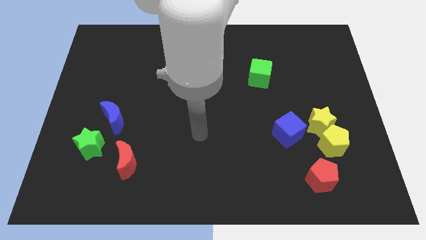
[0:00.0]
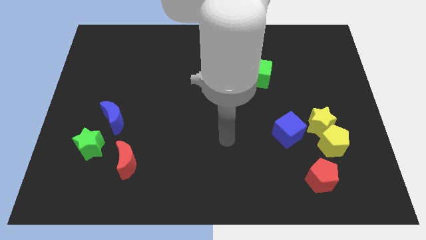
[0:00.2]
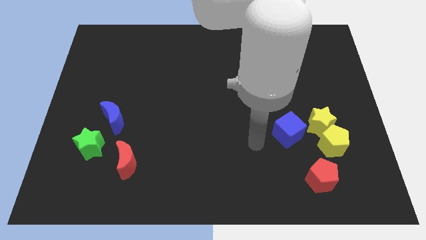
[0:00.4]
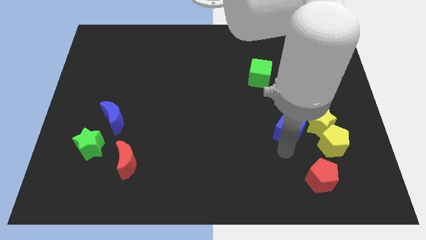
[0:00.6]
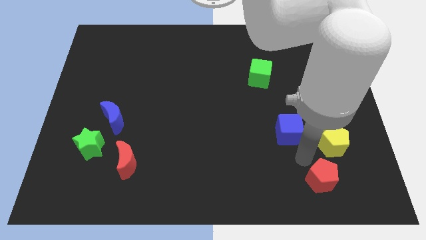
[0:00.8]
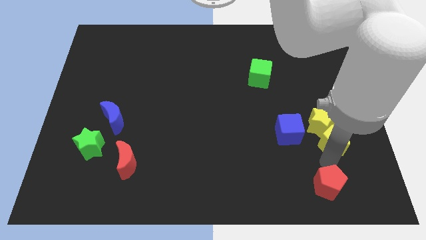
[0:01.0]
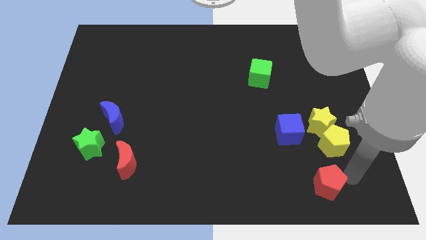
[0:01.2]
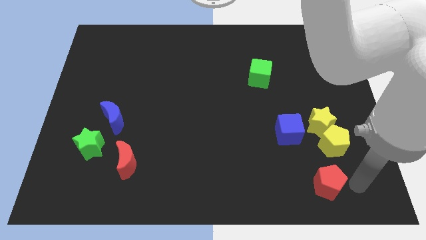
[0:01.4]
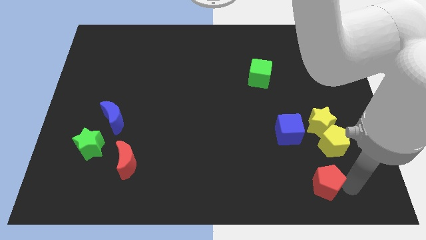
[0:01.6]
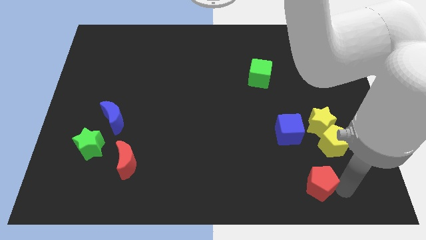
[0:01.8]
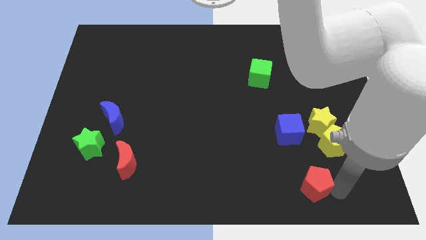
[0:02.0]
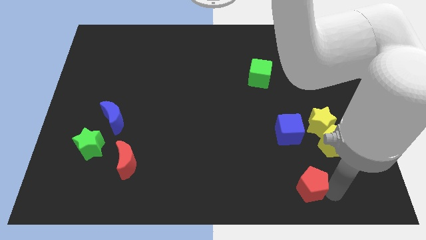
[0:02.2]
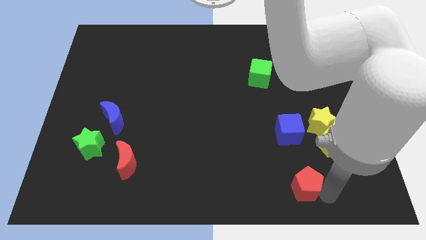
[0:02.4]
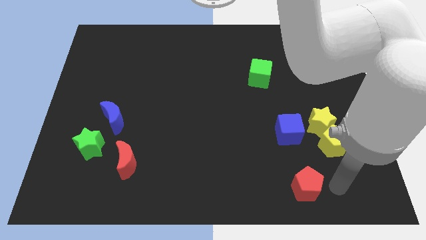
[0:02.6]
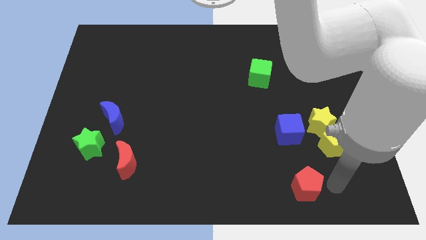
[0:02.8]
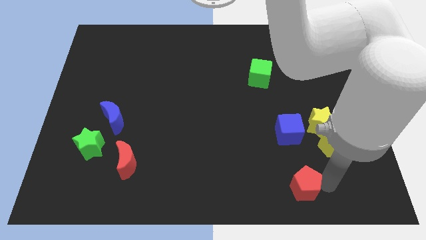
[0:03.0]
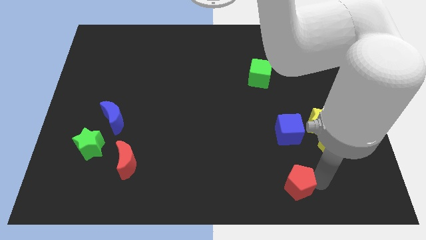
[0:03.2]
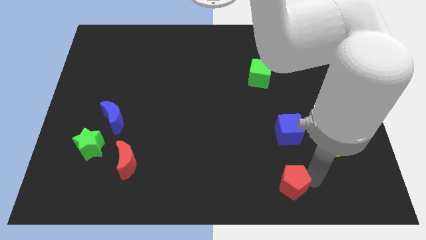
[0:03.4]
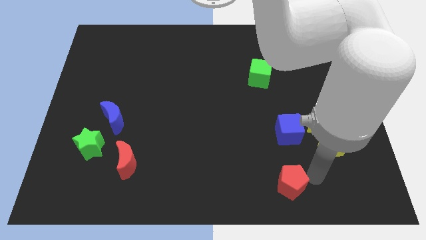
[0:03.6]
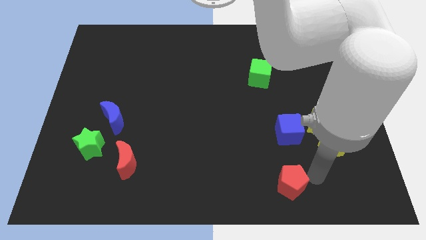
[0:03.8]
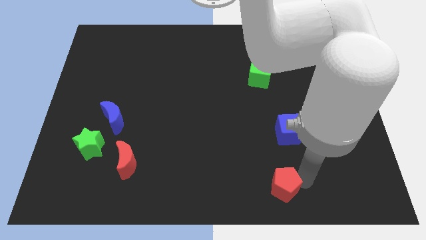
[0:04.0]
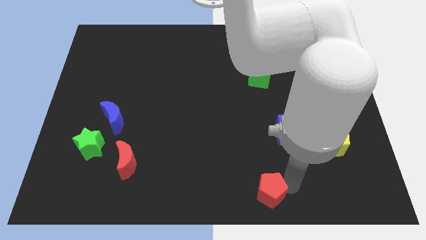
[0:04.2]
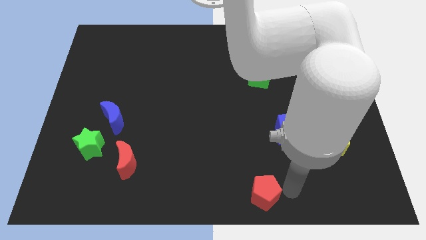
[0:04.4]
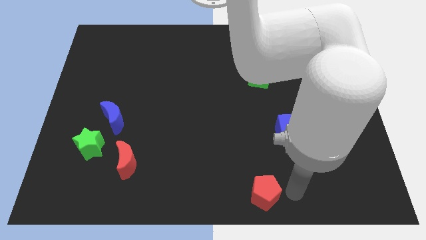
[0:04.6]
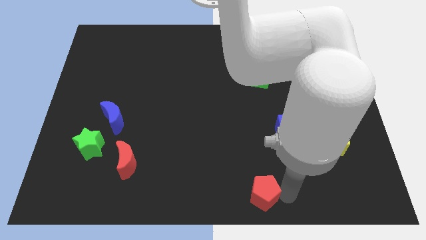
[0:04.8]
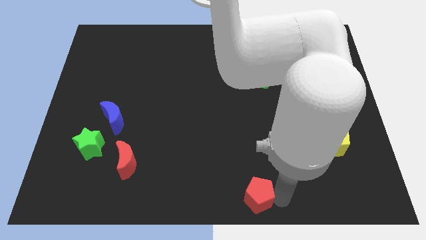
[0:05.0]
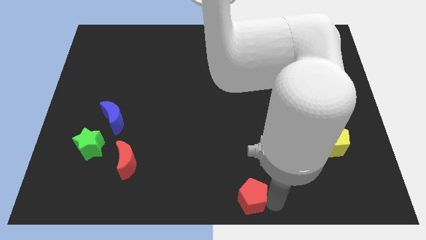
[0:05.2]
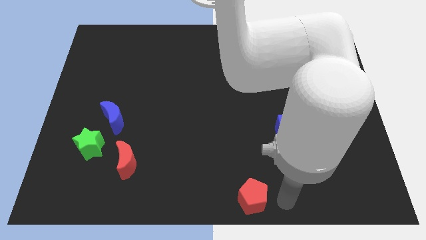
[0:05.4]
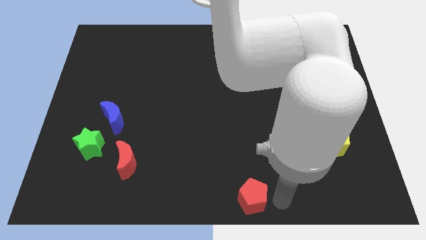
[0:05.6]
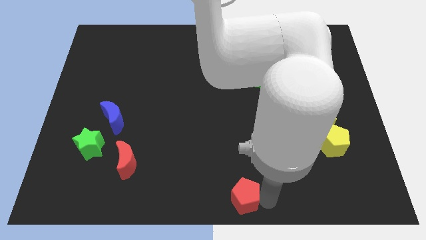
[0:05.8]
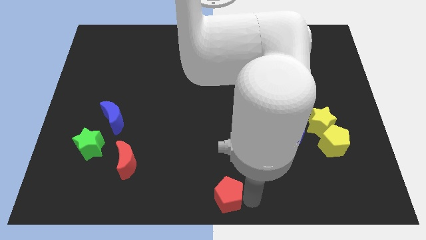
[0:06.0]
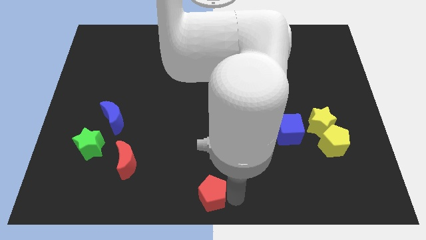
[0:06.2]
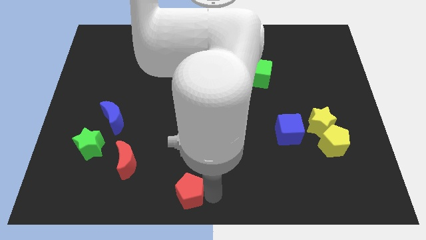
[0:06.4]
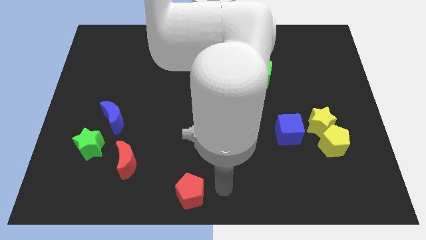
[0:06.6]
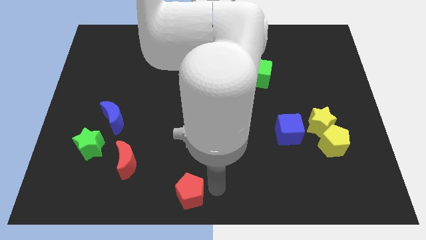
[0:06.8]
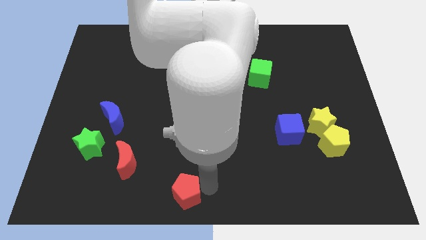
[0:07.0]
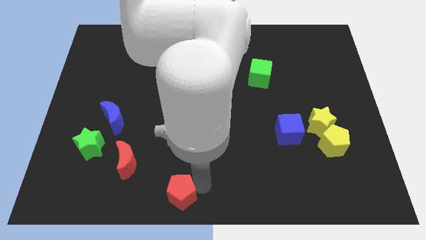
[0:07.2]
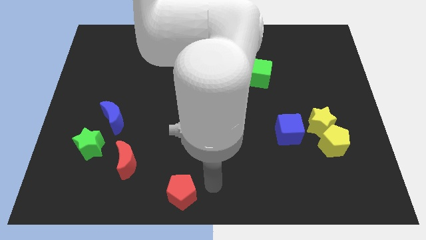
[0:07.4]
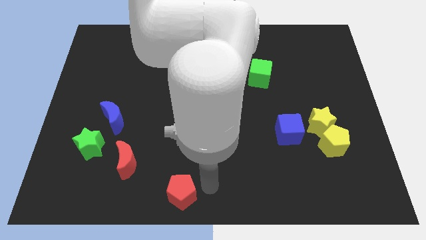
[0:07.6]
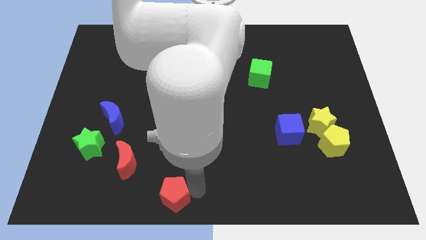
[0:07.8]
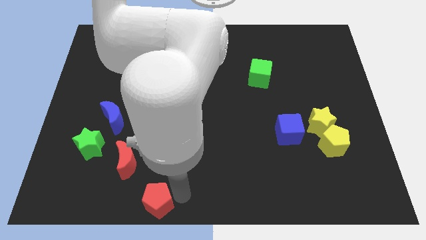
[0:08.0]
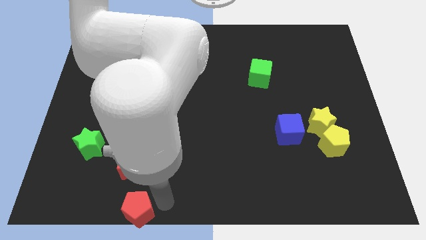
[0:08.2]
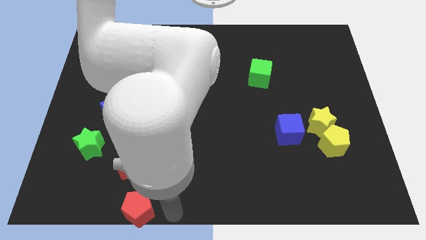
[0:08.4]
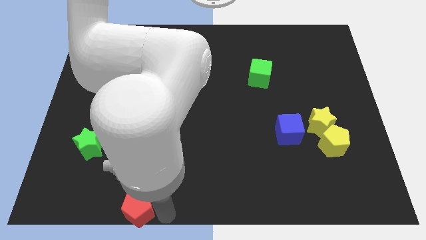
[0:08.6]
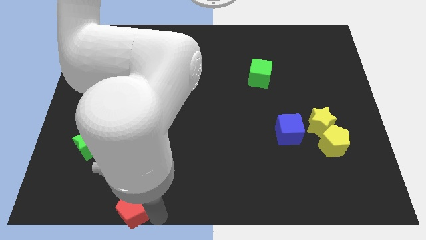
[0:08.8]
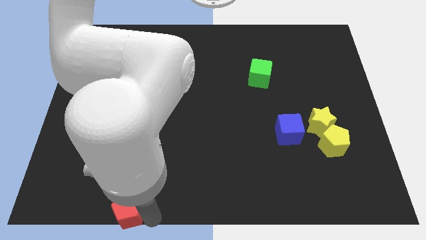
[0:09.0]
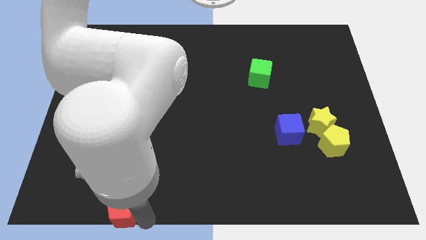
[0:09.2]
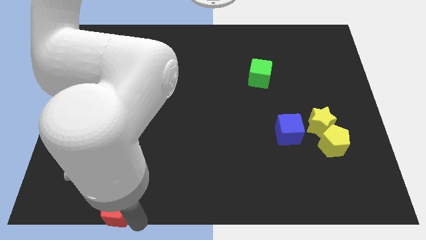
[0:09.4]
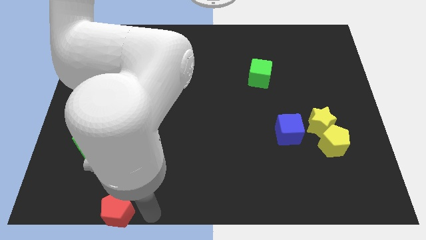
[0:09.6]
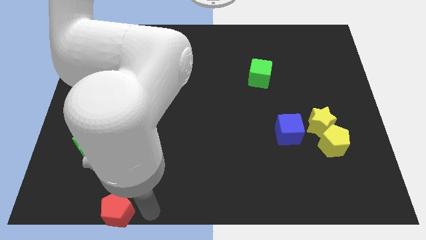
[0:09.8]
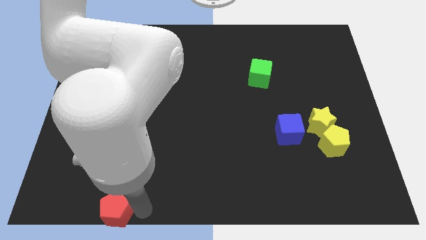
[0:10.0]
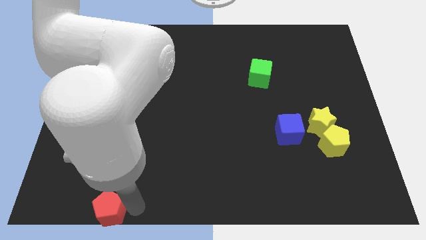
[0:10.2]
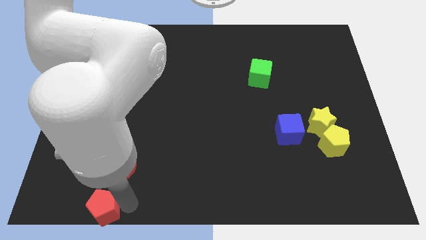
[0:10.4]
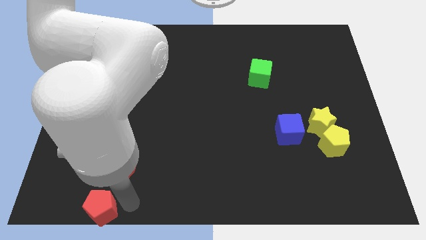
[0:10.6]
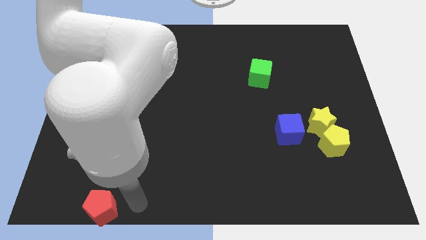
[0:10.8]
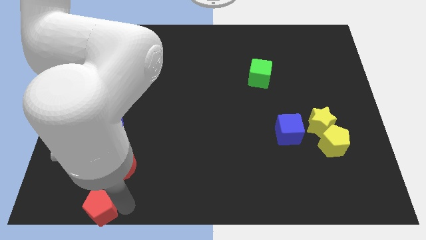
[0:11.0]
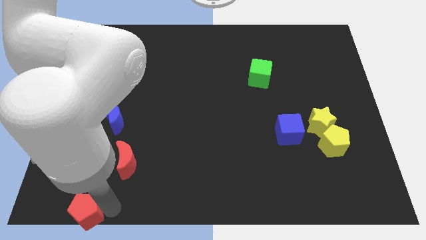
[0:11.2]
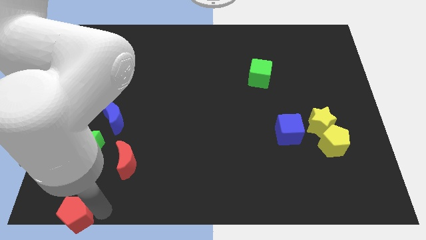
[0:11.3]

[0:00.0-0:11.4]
slide the red pentagon to the lower left corner

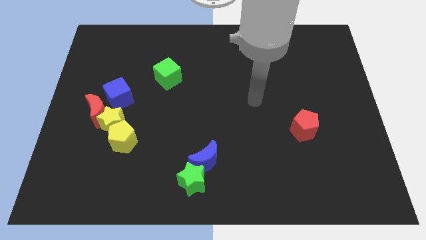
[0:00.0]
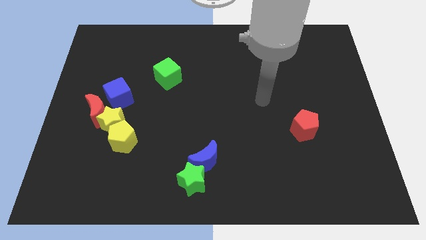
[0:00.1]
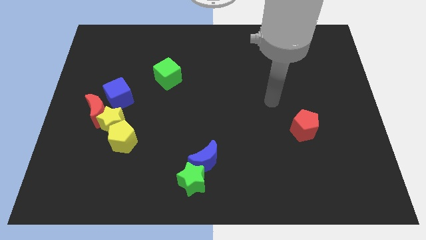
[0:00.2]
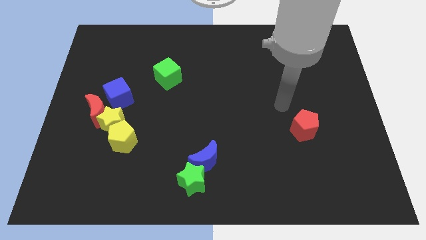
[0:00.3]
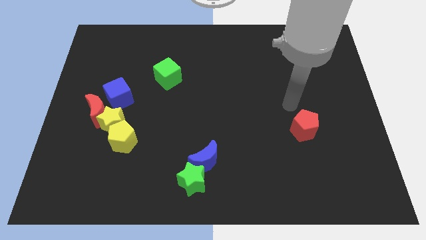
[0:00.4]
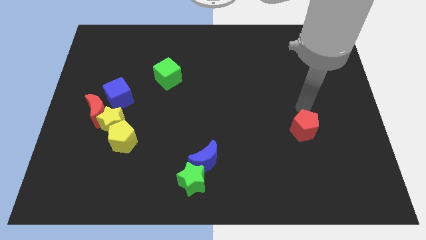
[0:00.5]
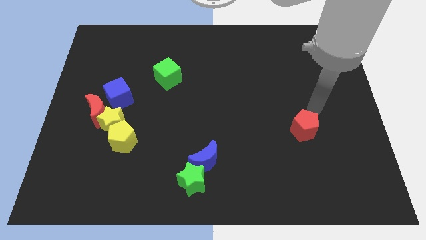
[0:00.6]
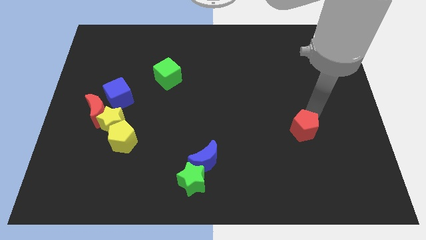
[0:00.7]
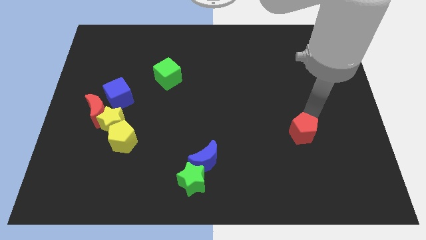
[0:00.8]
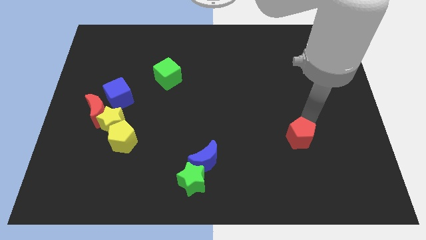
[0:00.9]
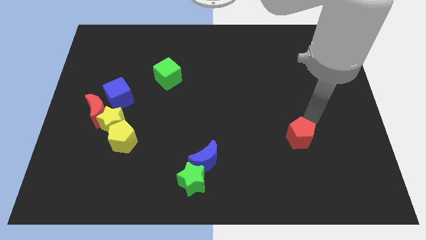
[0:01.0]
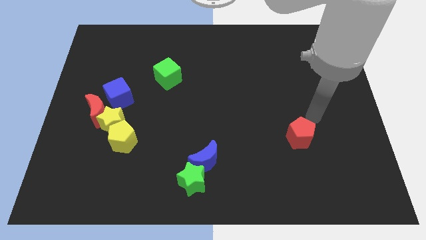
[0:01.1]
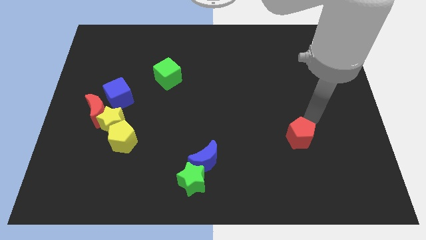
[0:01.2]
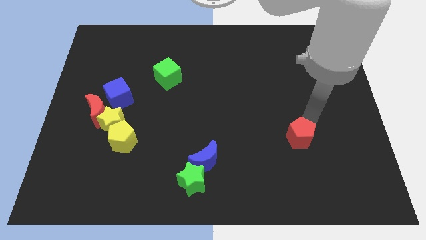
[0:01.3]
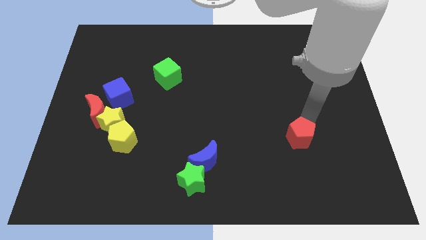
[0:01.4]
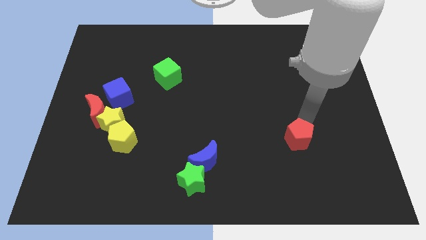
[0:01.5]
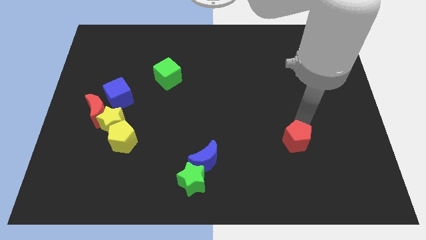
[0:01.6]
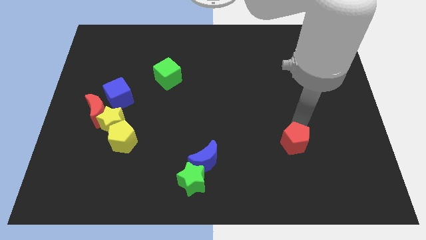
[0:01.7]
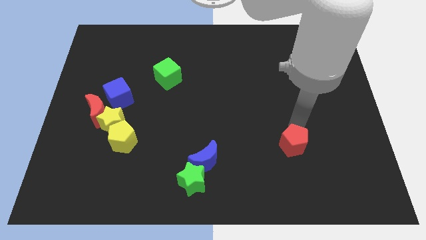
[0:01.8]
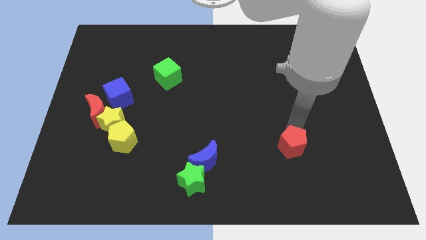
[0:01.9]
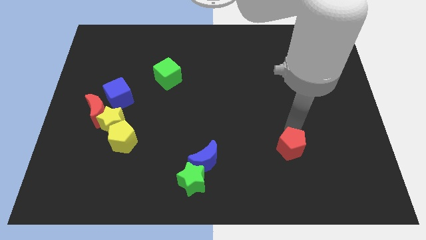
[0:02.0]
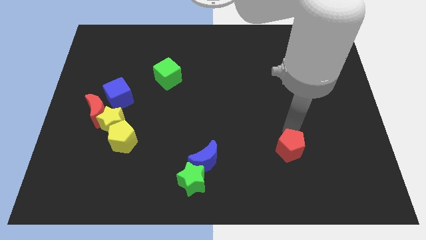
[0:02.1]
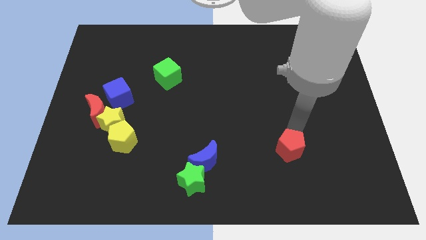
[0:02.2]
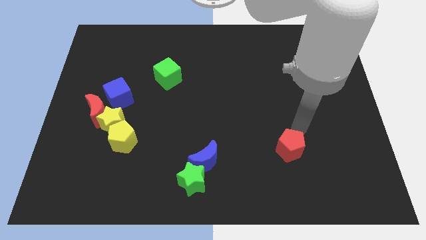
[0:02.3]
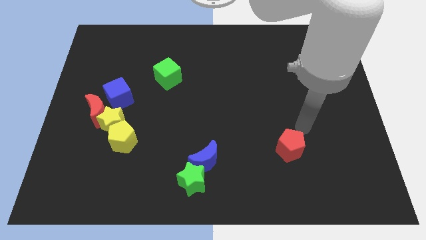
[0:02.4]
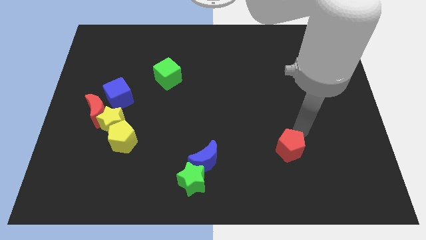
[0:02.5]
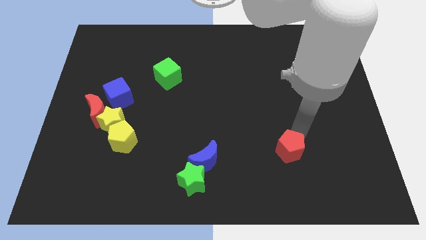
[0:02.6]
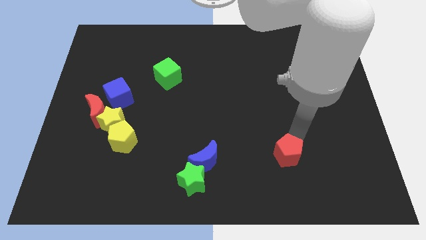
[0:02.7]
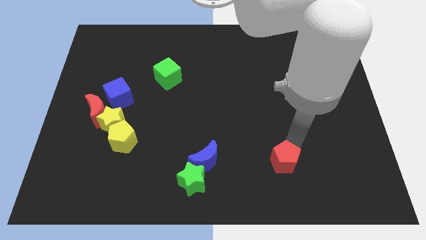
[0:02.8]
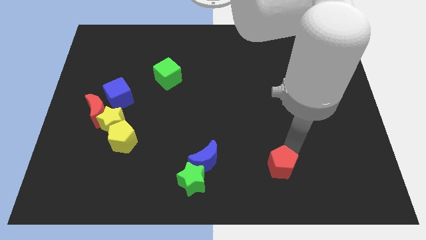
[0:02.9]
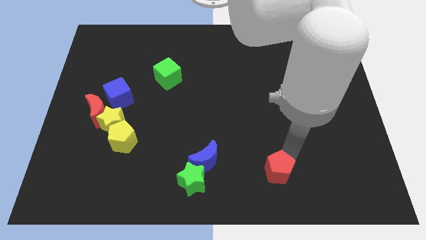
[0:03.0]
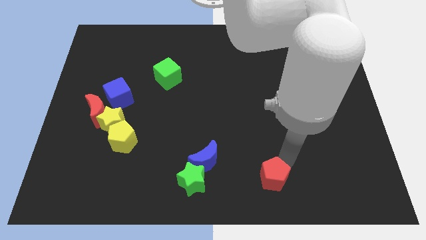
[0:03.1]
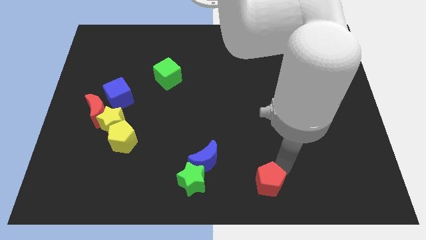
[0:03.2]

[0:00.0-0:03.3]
move the red pentagon to the bottom side
